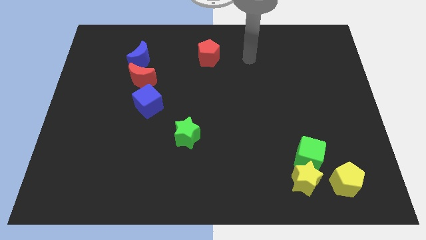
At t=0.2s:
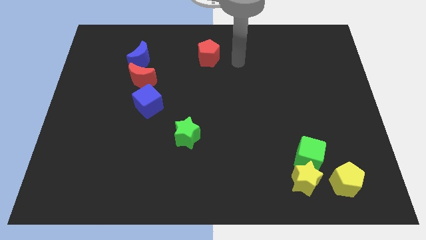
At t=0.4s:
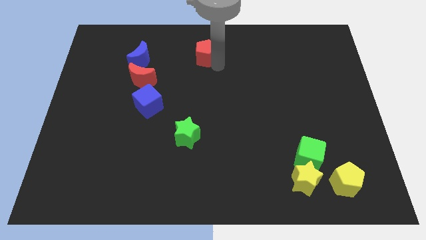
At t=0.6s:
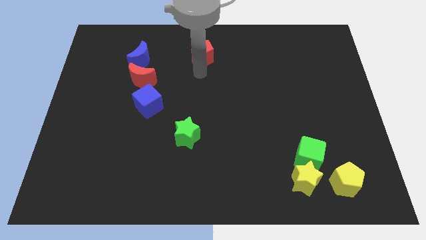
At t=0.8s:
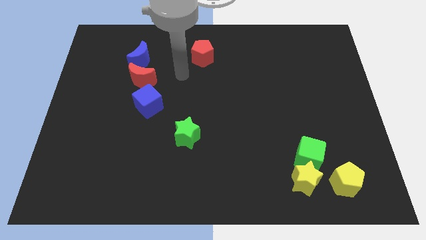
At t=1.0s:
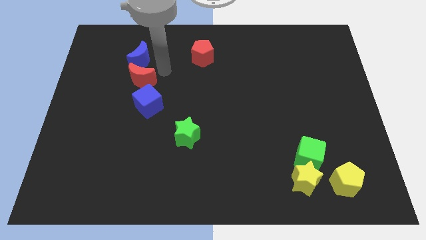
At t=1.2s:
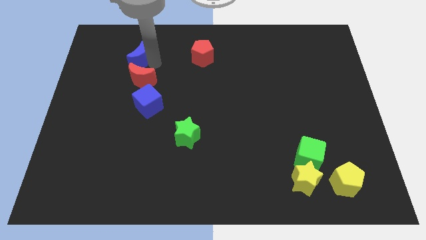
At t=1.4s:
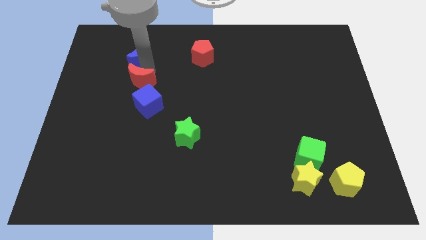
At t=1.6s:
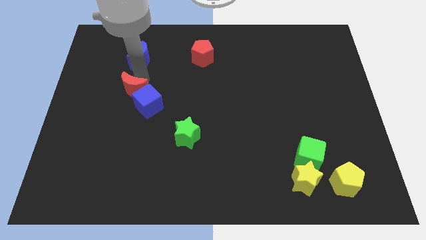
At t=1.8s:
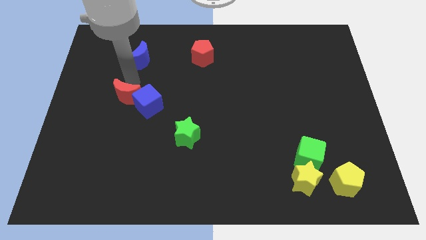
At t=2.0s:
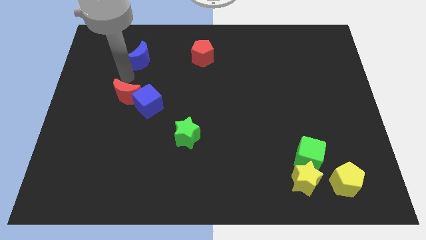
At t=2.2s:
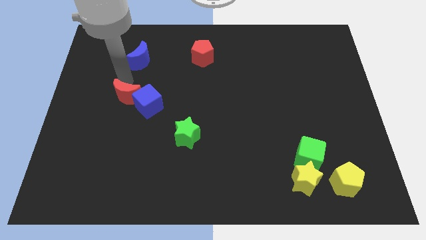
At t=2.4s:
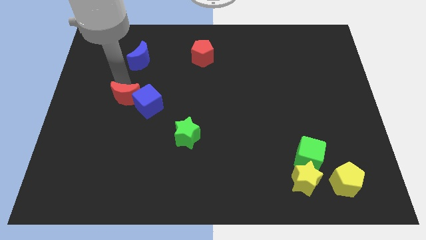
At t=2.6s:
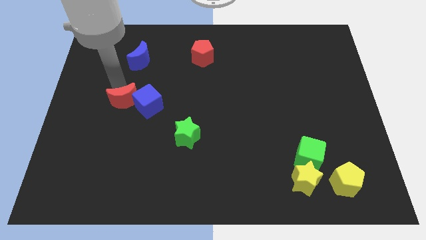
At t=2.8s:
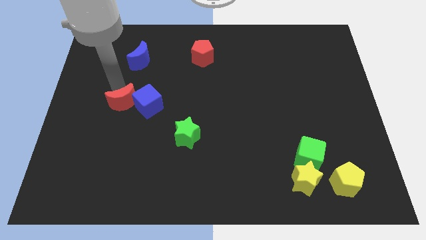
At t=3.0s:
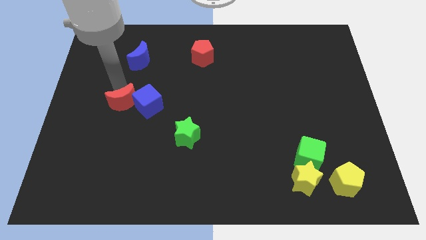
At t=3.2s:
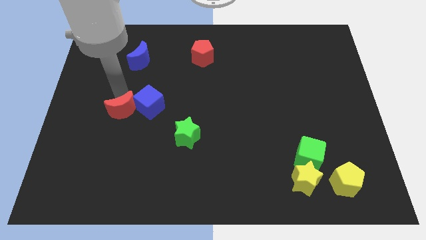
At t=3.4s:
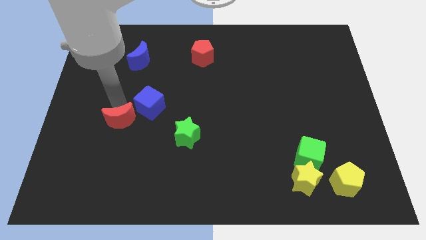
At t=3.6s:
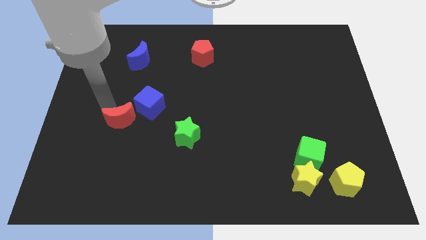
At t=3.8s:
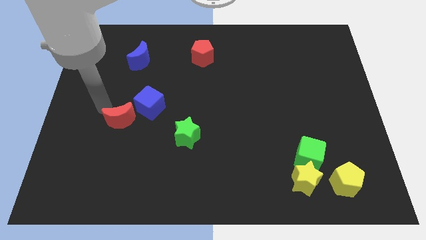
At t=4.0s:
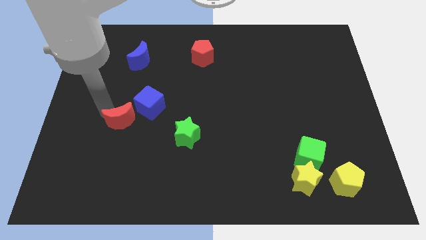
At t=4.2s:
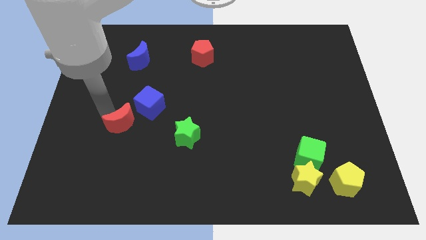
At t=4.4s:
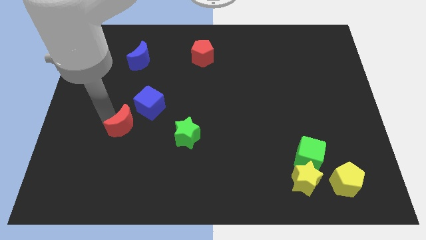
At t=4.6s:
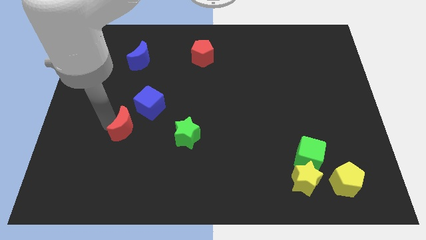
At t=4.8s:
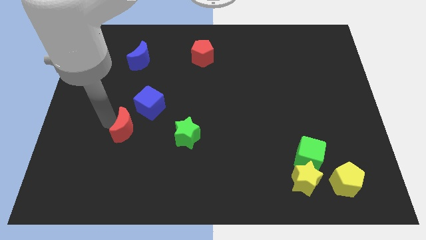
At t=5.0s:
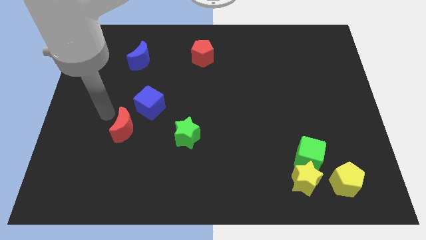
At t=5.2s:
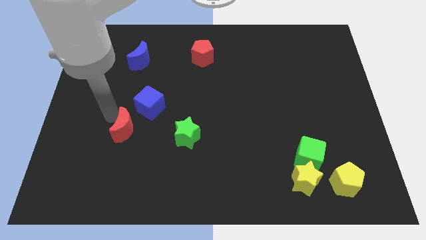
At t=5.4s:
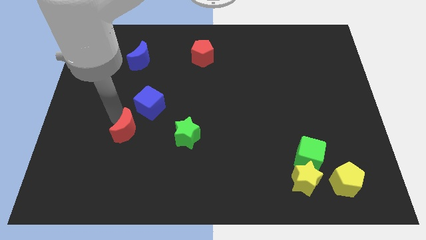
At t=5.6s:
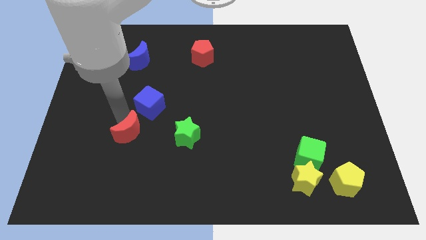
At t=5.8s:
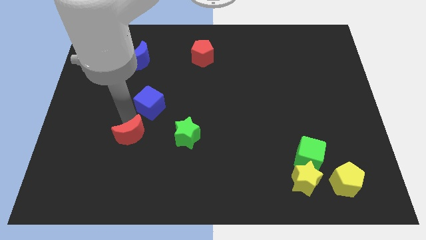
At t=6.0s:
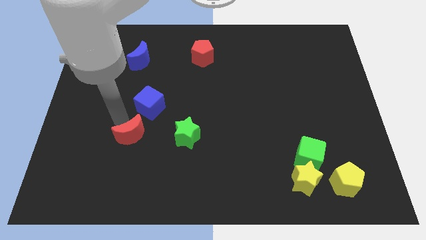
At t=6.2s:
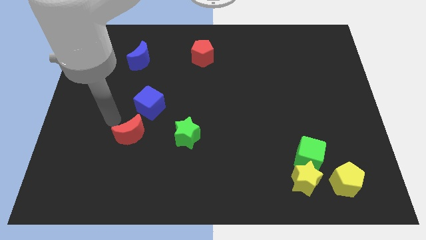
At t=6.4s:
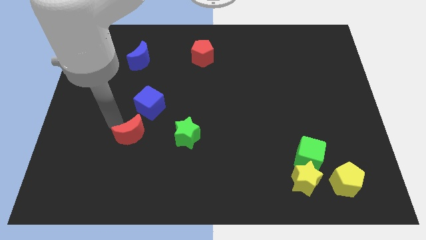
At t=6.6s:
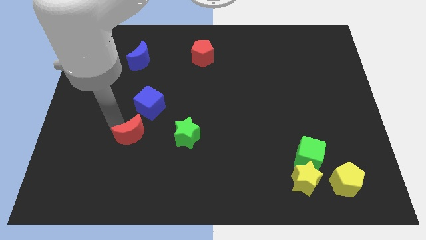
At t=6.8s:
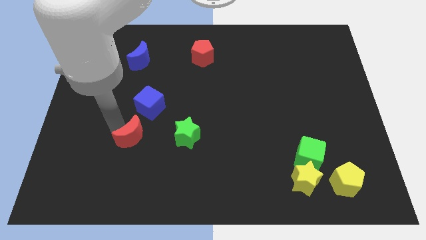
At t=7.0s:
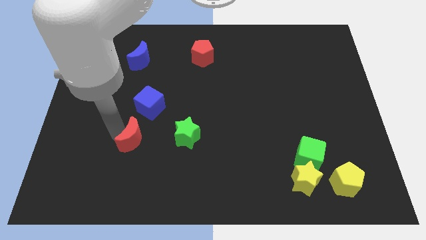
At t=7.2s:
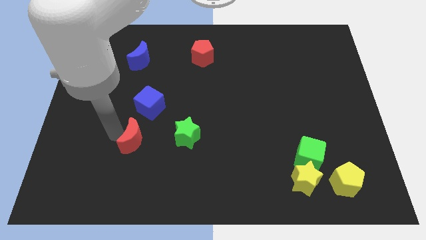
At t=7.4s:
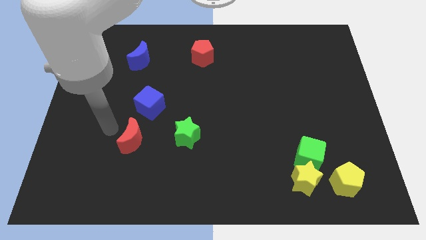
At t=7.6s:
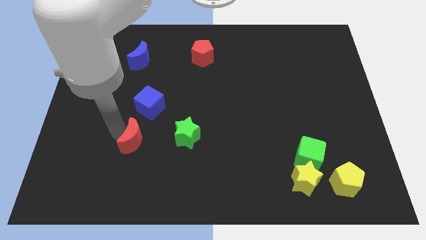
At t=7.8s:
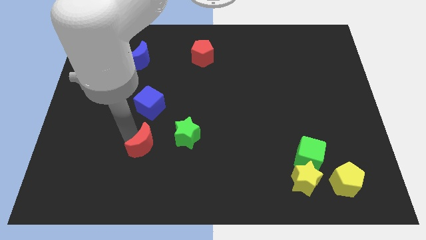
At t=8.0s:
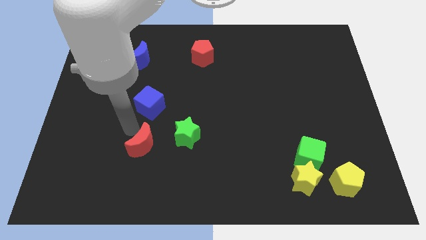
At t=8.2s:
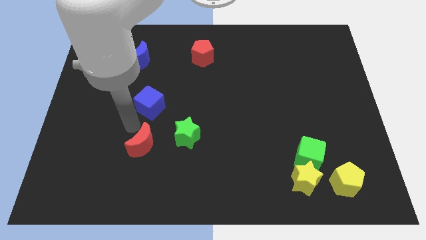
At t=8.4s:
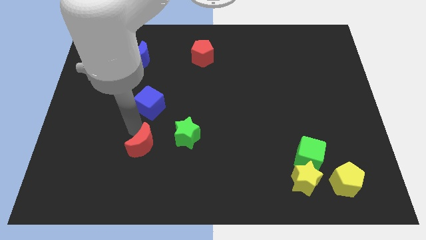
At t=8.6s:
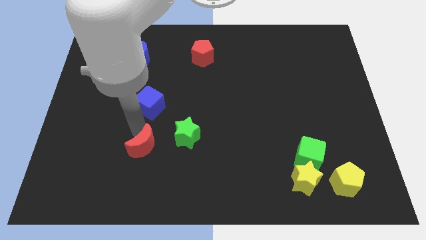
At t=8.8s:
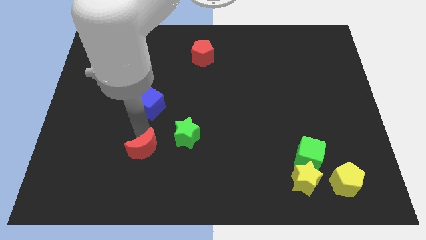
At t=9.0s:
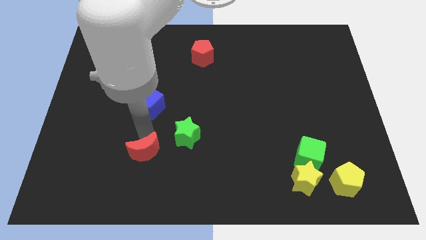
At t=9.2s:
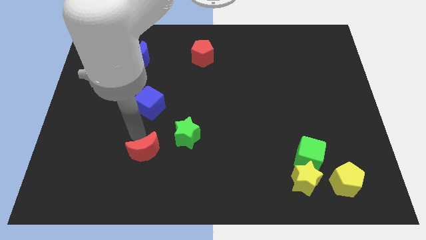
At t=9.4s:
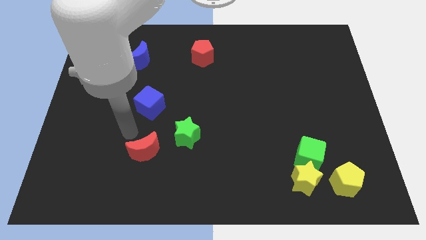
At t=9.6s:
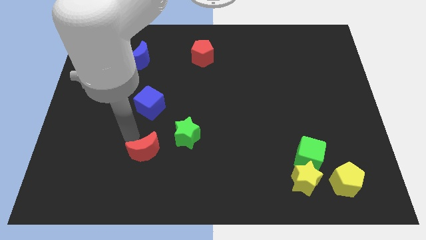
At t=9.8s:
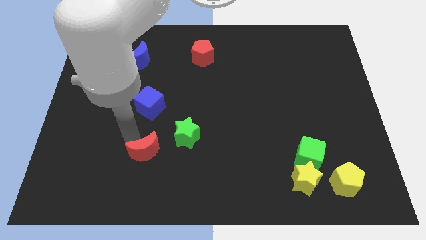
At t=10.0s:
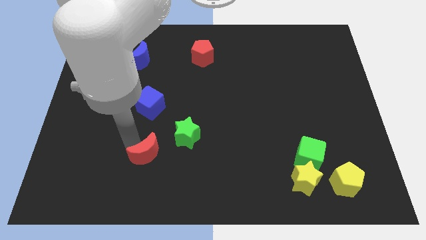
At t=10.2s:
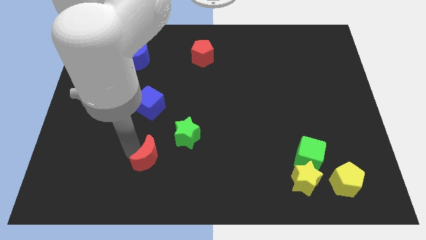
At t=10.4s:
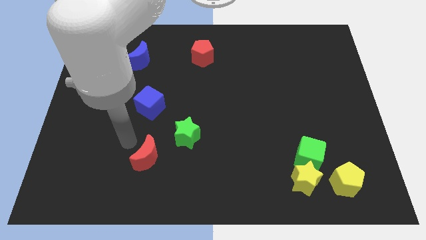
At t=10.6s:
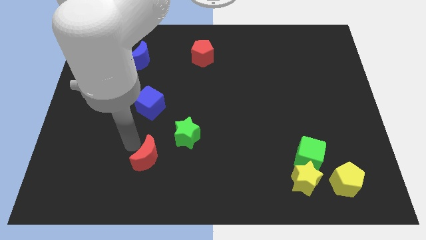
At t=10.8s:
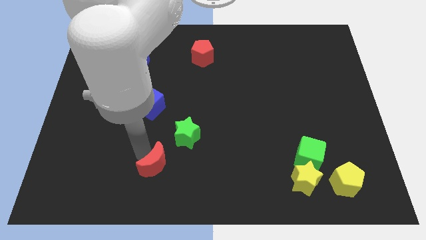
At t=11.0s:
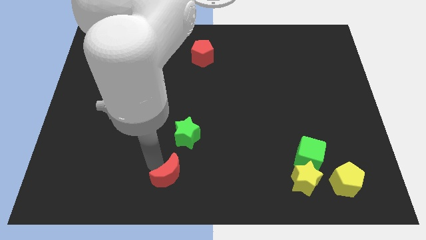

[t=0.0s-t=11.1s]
slide the red moon to the bottom

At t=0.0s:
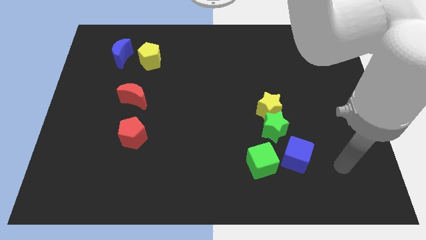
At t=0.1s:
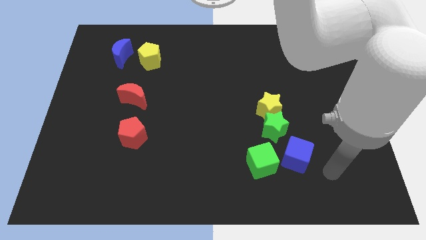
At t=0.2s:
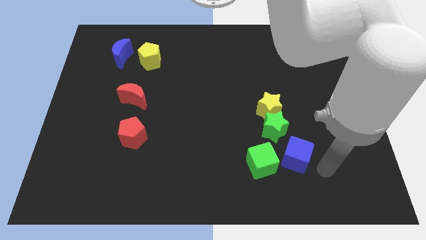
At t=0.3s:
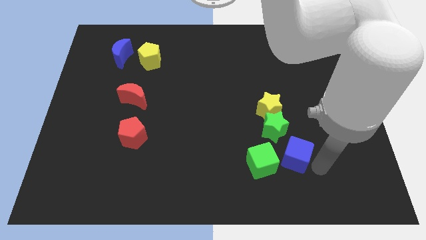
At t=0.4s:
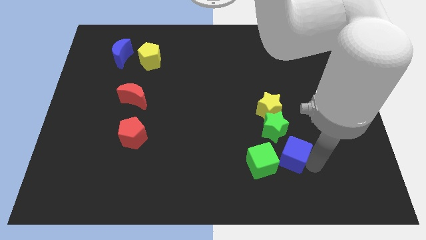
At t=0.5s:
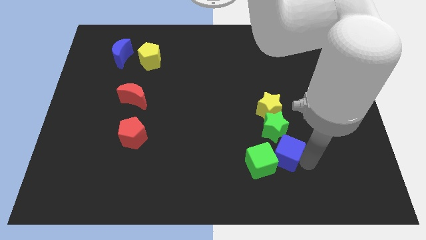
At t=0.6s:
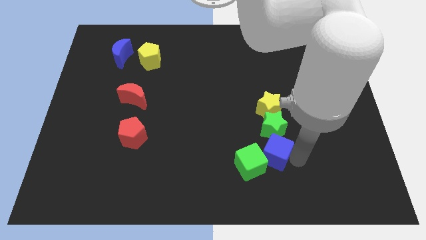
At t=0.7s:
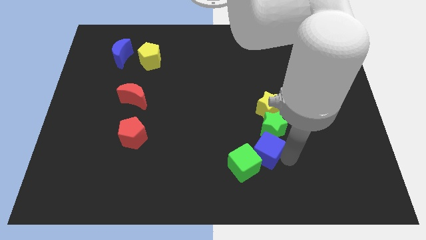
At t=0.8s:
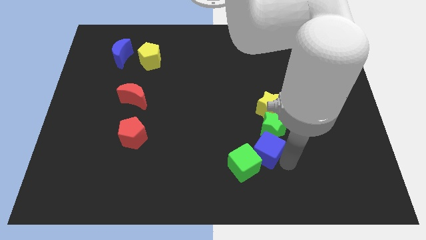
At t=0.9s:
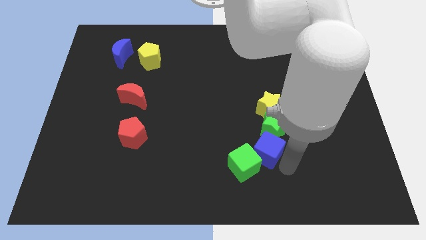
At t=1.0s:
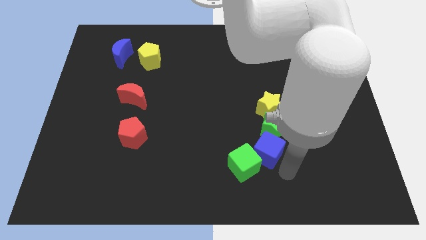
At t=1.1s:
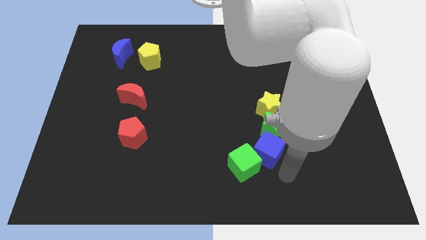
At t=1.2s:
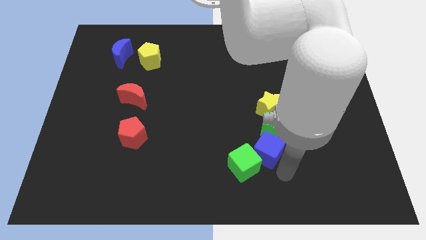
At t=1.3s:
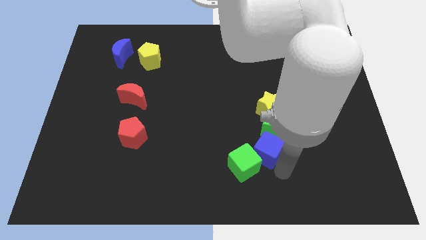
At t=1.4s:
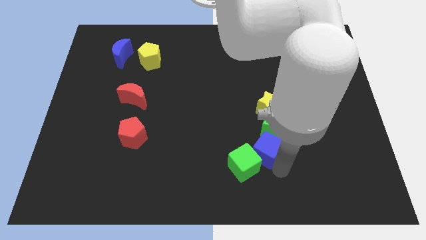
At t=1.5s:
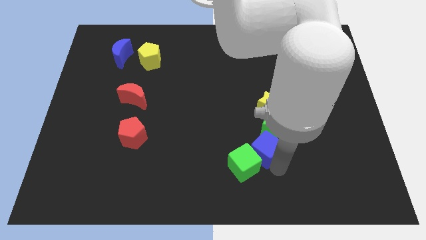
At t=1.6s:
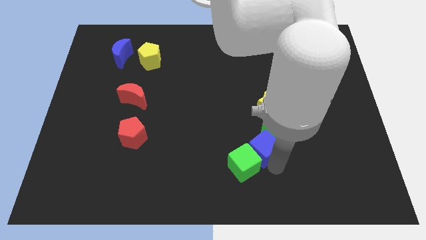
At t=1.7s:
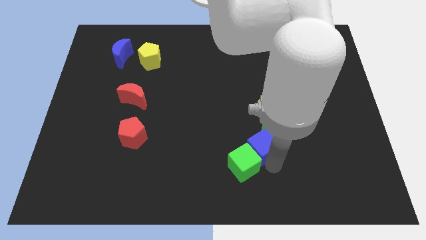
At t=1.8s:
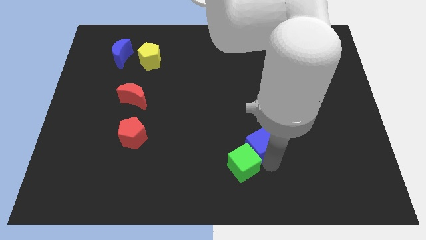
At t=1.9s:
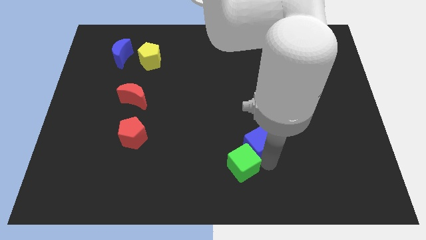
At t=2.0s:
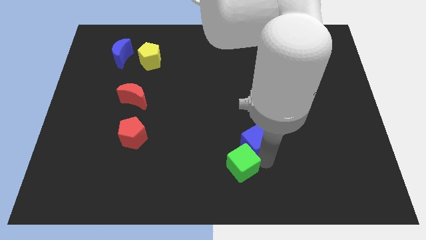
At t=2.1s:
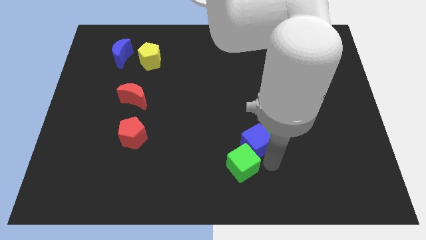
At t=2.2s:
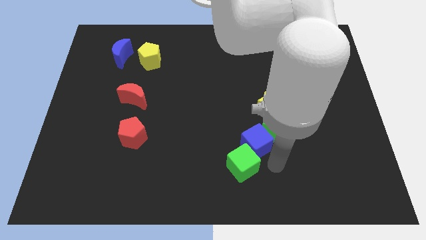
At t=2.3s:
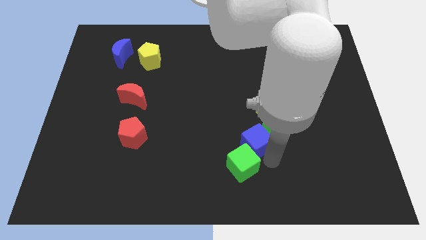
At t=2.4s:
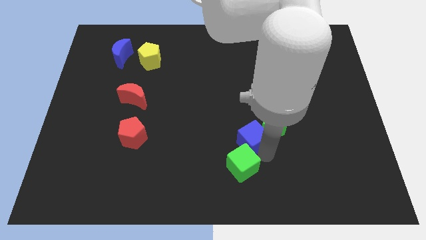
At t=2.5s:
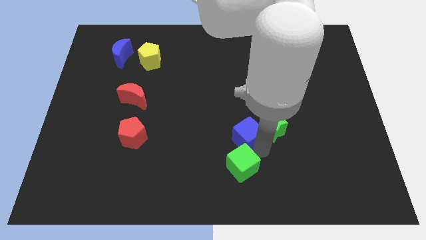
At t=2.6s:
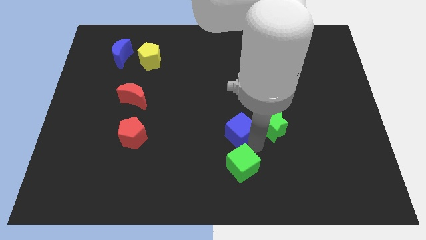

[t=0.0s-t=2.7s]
put the blue cube to the middle of the board
